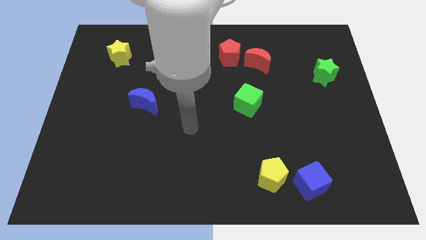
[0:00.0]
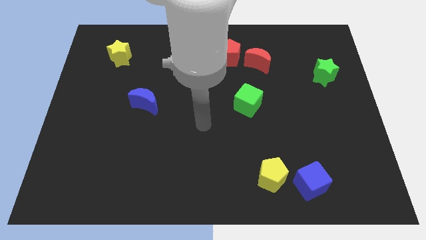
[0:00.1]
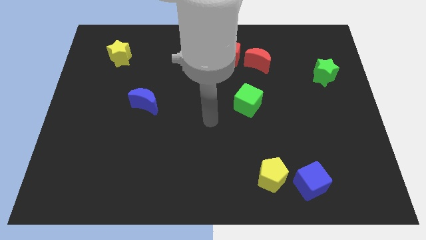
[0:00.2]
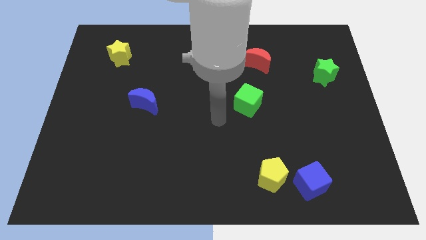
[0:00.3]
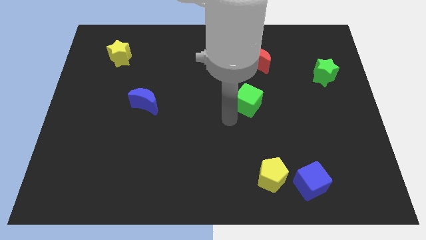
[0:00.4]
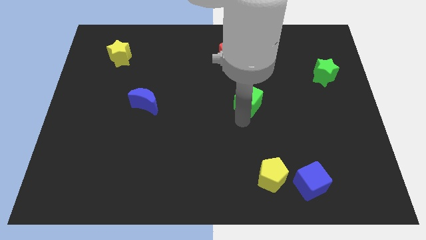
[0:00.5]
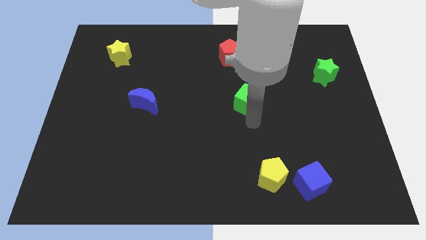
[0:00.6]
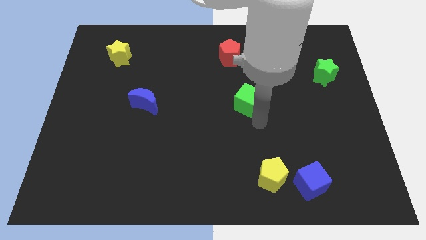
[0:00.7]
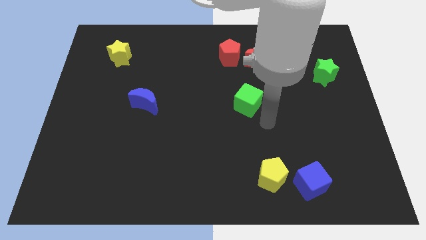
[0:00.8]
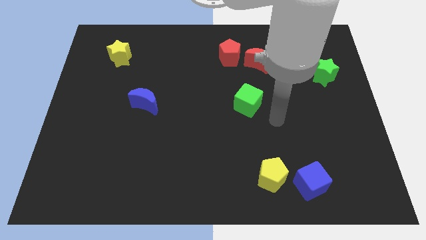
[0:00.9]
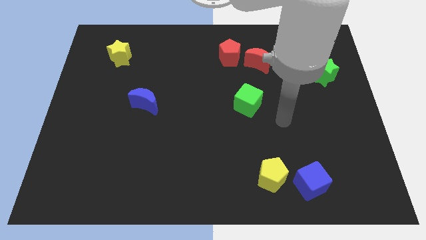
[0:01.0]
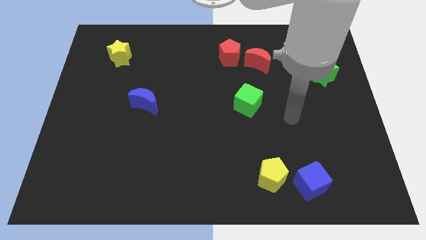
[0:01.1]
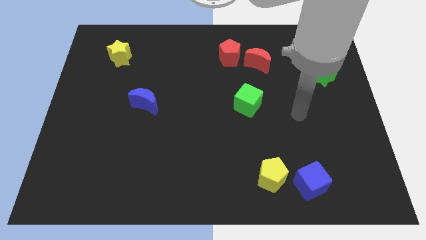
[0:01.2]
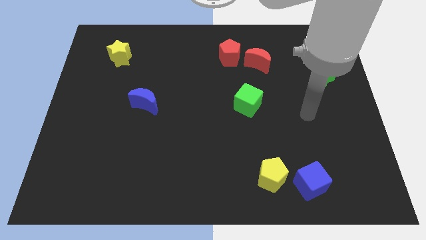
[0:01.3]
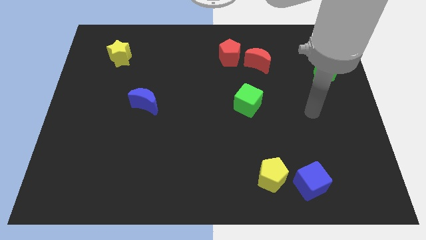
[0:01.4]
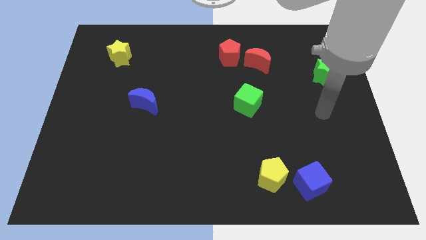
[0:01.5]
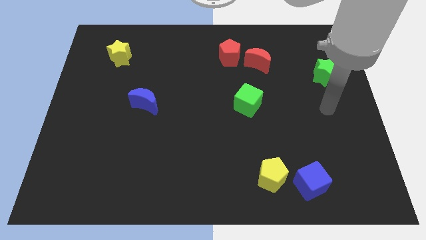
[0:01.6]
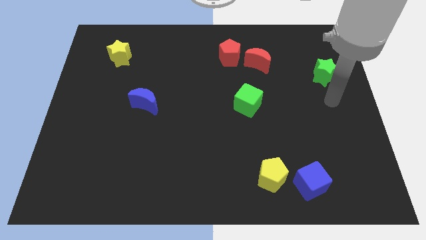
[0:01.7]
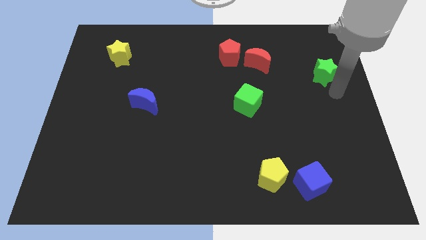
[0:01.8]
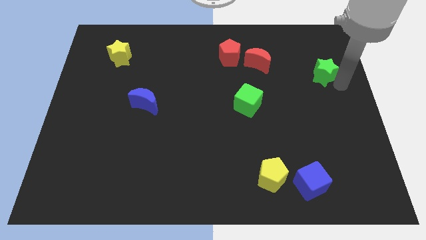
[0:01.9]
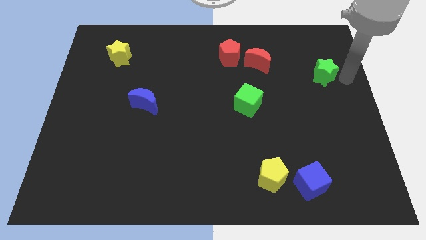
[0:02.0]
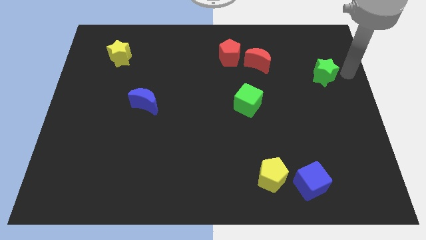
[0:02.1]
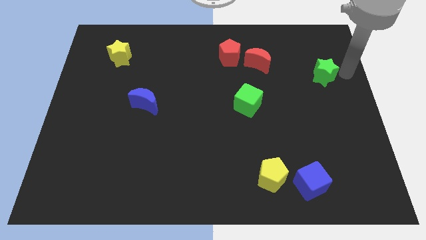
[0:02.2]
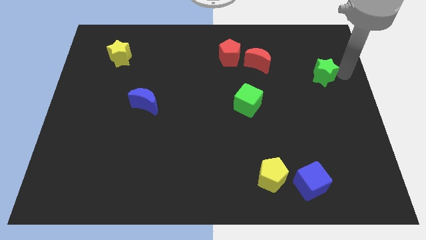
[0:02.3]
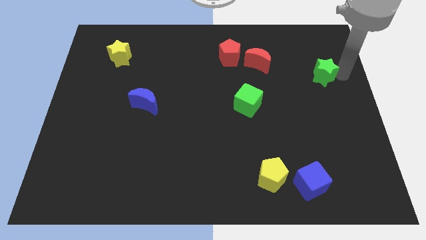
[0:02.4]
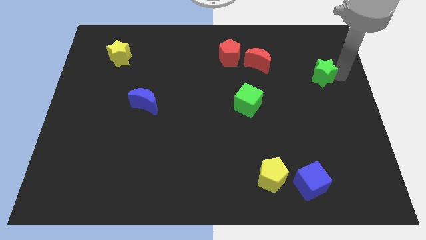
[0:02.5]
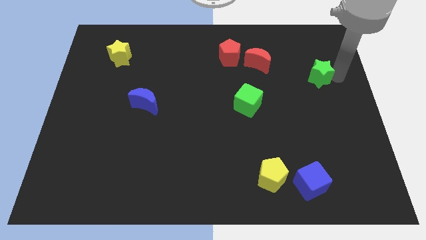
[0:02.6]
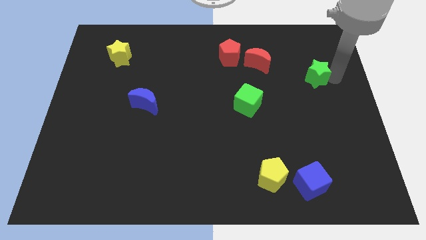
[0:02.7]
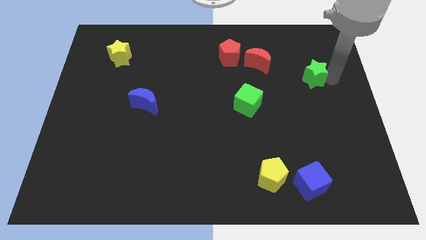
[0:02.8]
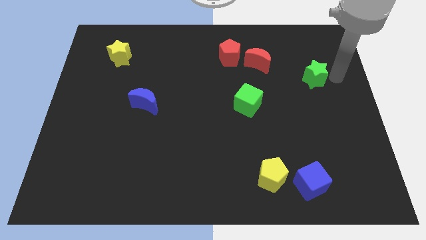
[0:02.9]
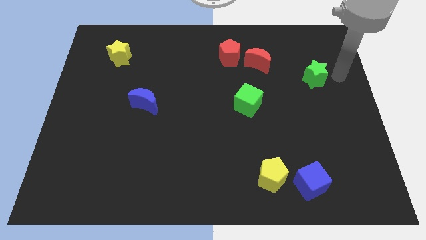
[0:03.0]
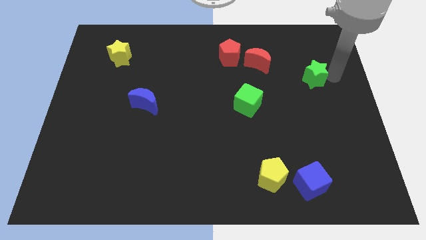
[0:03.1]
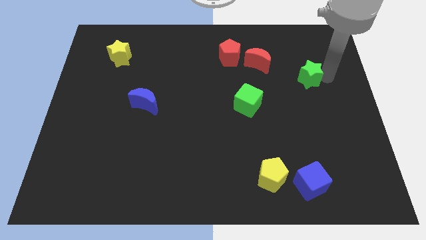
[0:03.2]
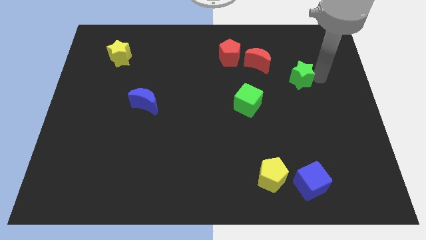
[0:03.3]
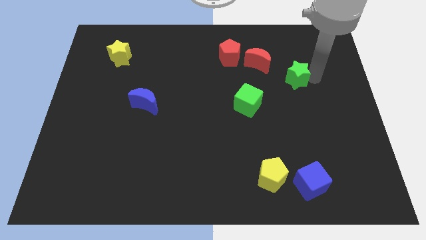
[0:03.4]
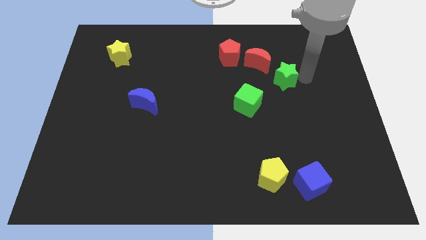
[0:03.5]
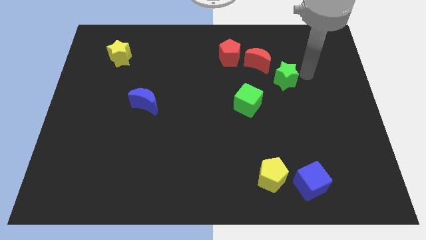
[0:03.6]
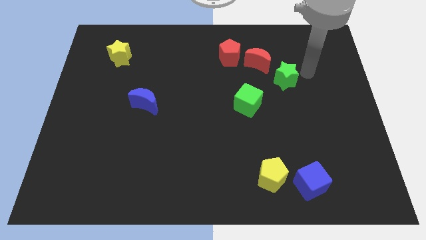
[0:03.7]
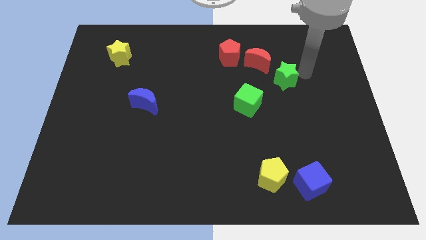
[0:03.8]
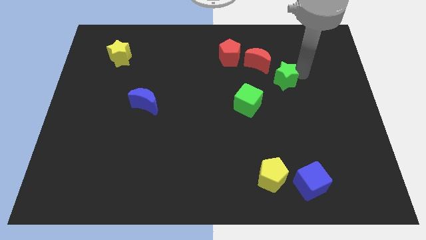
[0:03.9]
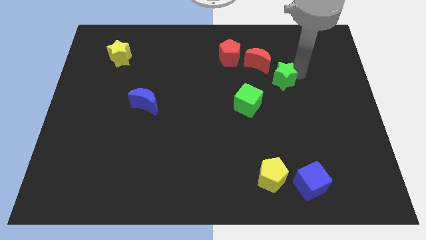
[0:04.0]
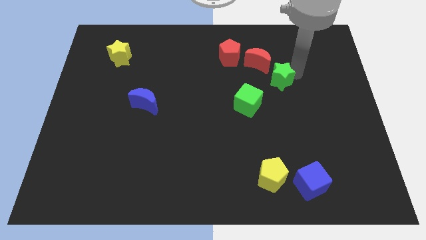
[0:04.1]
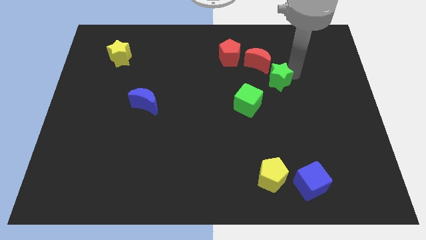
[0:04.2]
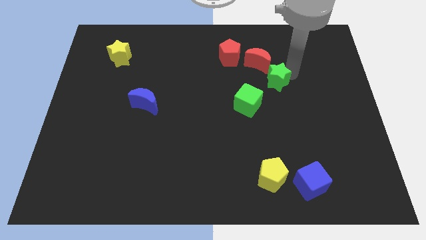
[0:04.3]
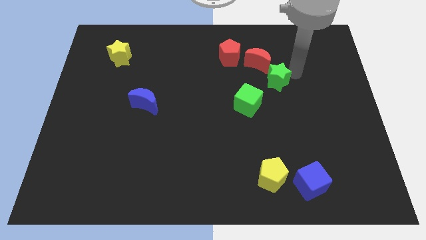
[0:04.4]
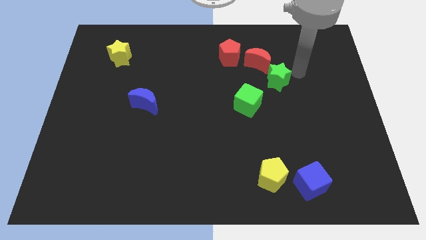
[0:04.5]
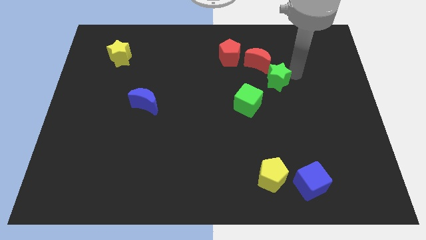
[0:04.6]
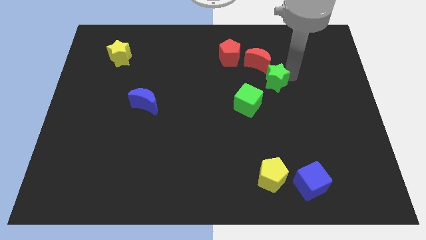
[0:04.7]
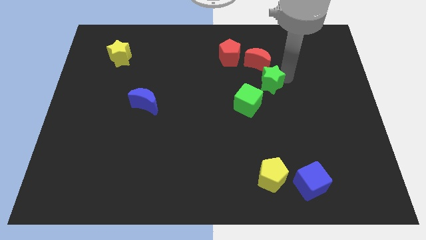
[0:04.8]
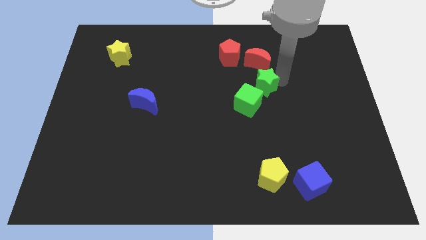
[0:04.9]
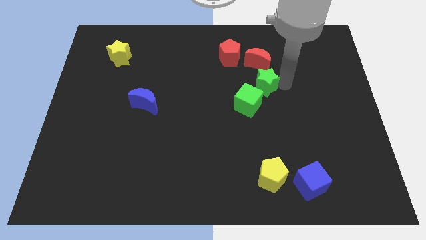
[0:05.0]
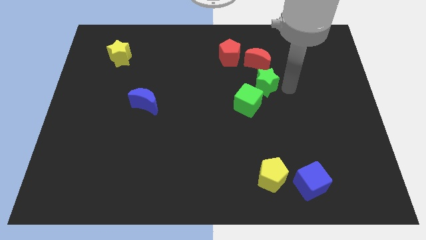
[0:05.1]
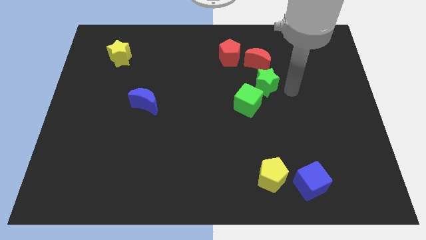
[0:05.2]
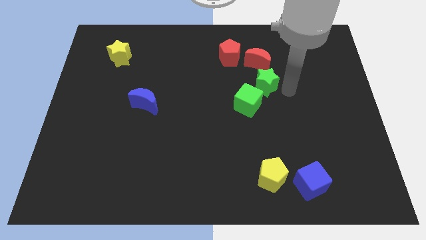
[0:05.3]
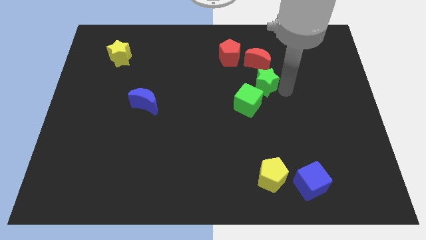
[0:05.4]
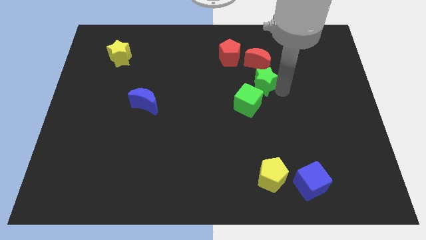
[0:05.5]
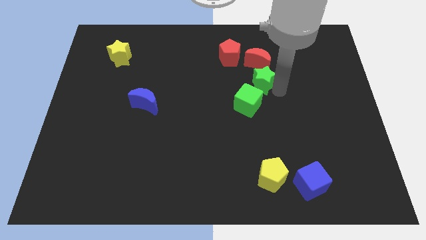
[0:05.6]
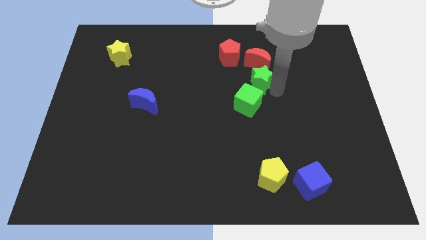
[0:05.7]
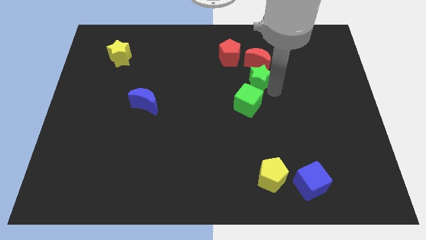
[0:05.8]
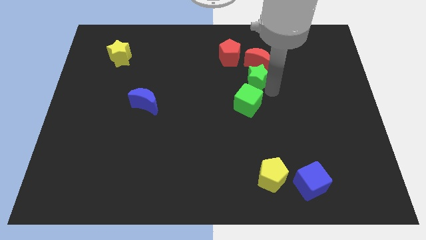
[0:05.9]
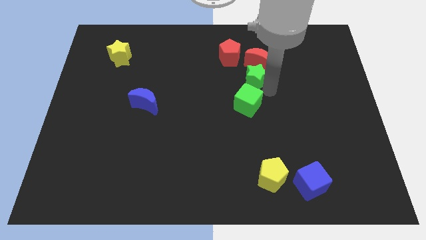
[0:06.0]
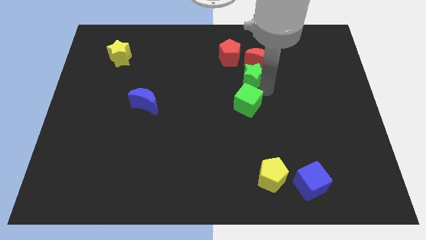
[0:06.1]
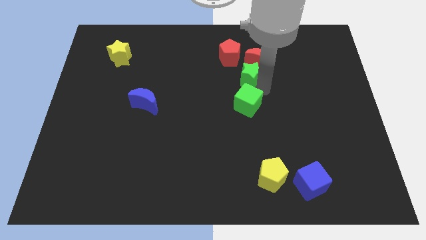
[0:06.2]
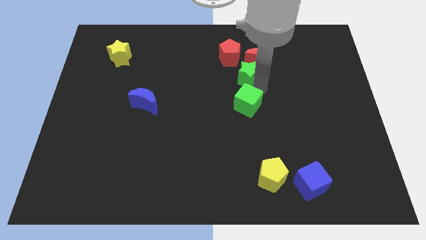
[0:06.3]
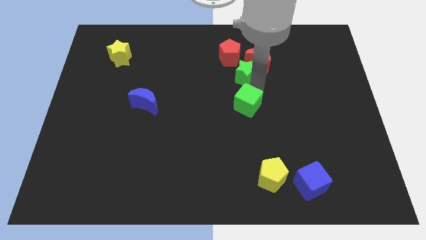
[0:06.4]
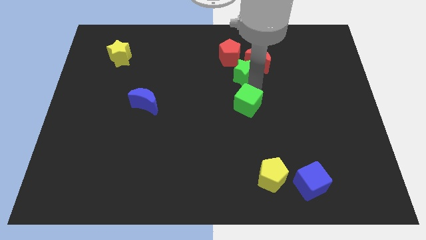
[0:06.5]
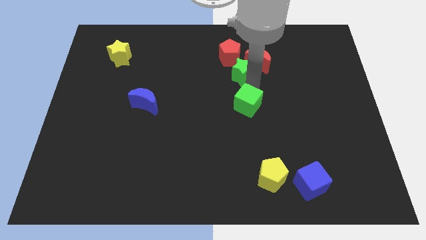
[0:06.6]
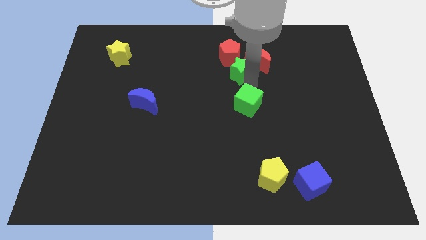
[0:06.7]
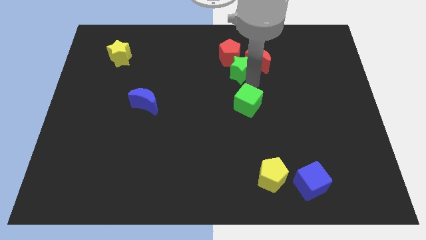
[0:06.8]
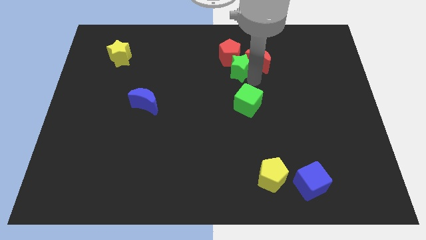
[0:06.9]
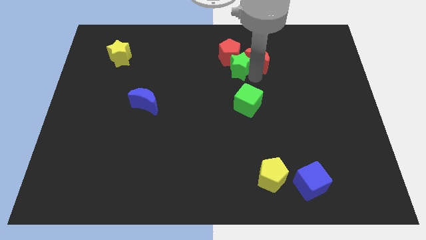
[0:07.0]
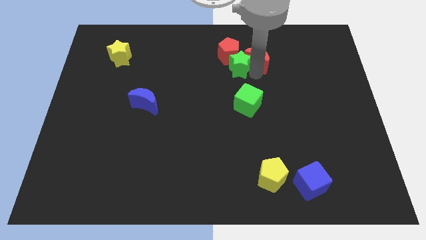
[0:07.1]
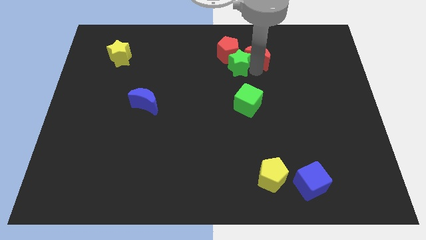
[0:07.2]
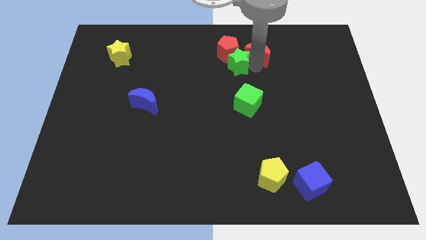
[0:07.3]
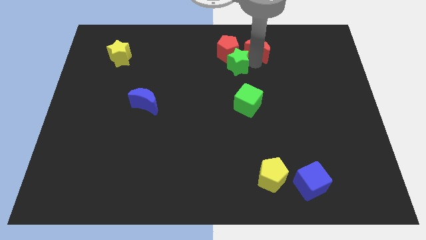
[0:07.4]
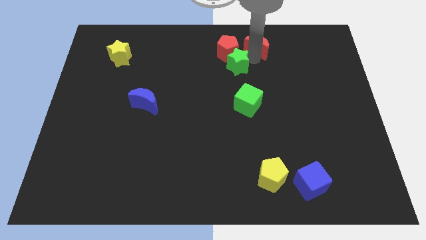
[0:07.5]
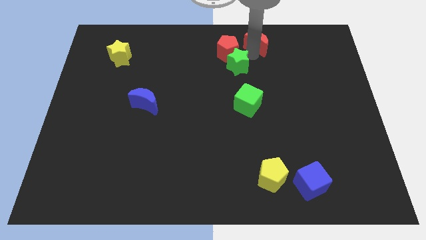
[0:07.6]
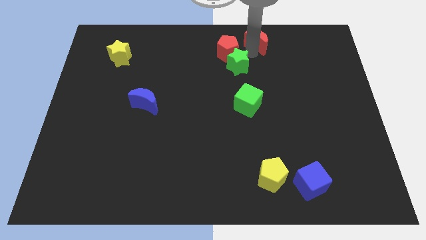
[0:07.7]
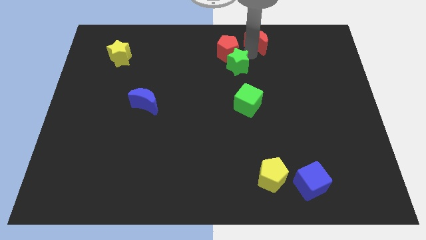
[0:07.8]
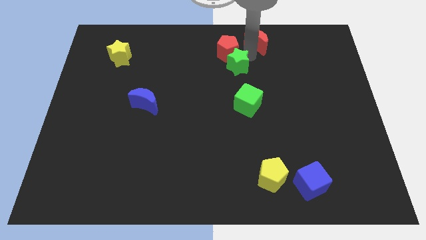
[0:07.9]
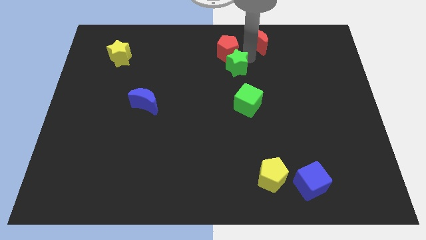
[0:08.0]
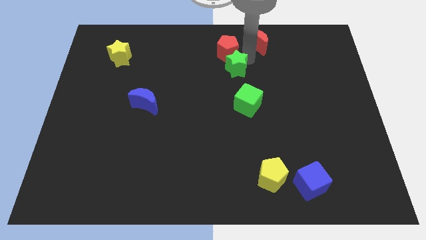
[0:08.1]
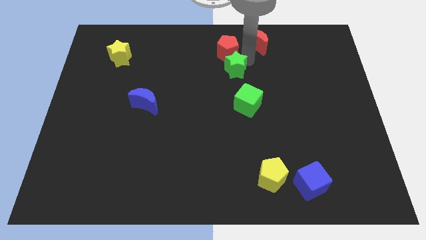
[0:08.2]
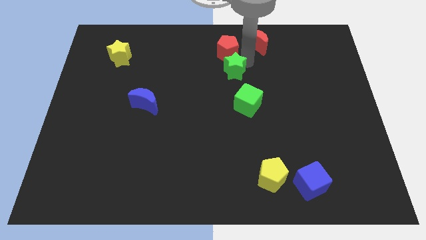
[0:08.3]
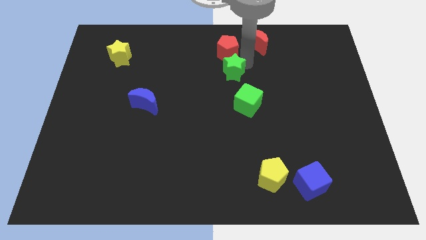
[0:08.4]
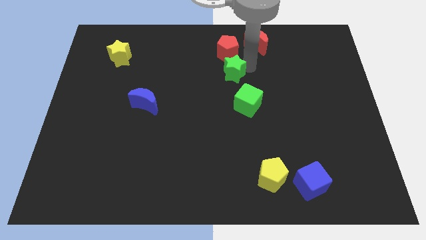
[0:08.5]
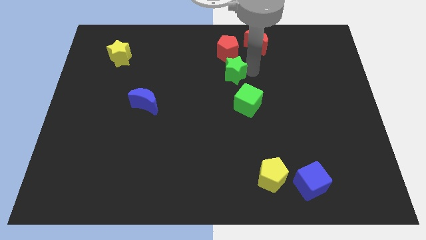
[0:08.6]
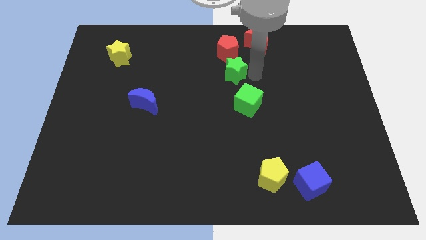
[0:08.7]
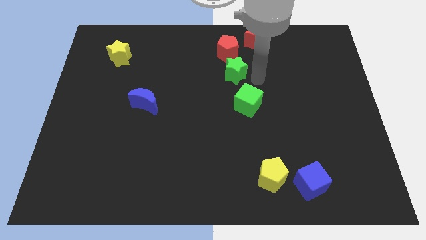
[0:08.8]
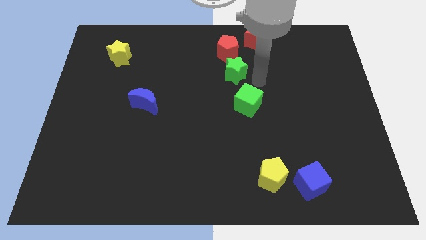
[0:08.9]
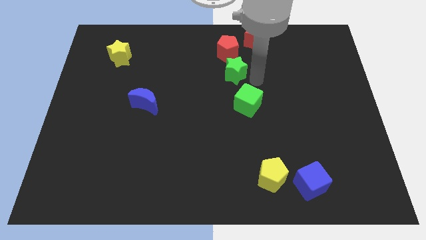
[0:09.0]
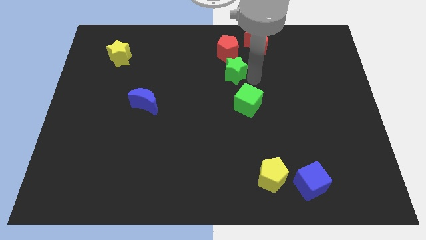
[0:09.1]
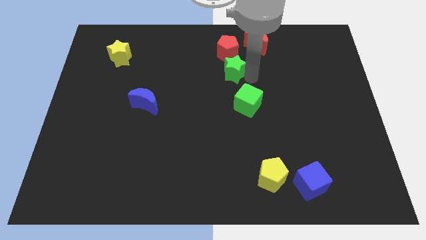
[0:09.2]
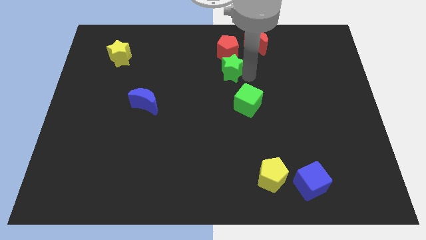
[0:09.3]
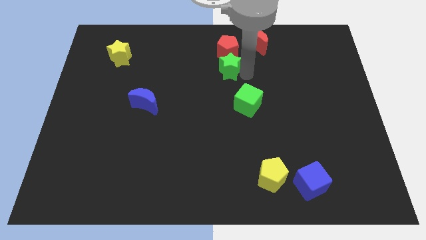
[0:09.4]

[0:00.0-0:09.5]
put the green star to the bottom left side of the red pentagon
